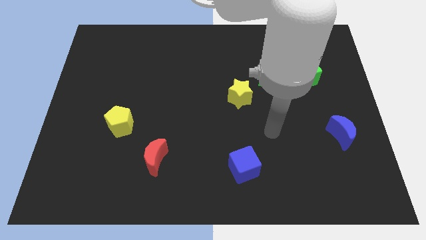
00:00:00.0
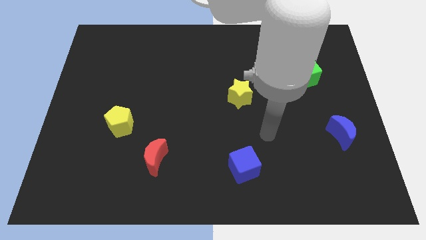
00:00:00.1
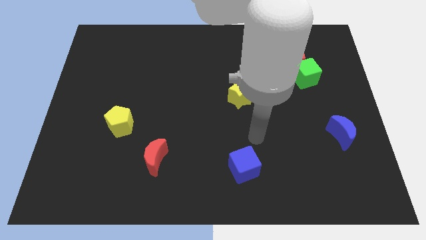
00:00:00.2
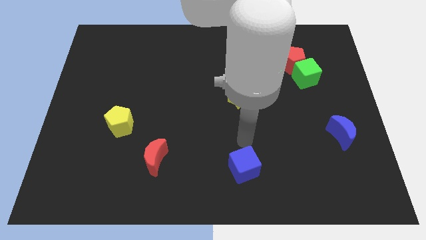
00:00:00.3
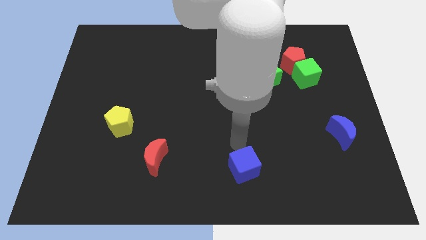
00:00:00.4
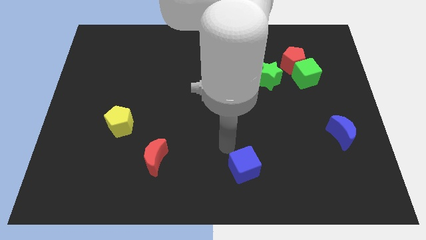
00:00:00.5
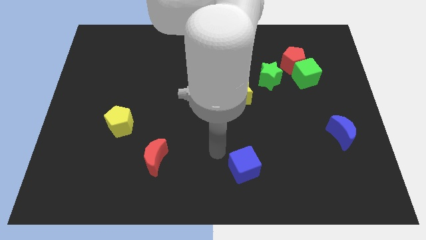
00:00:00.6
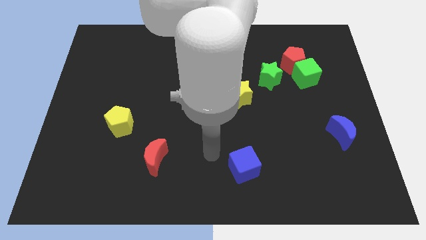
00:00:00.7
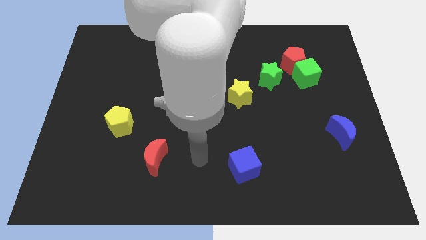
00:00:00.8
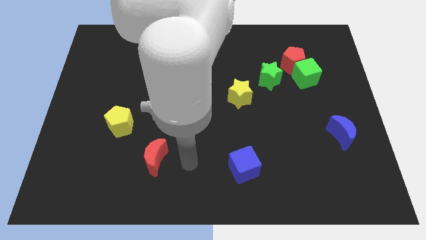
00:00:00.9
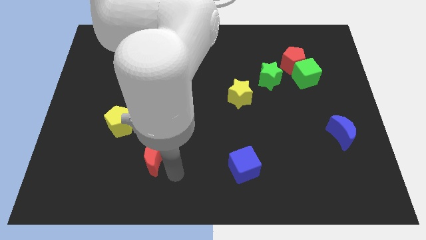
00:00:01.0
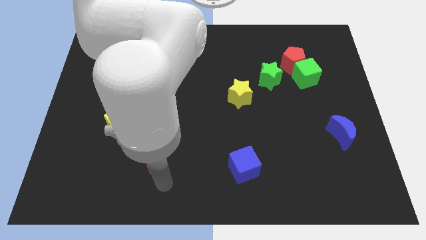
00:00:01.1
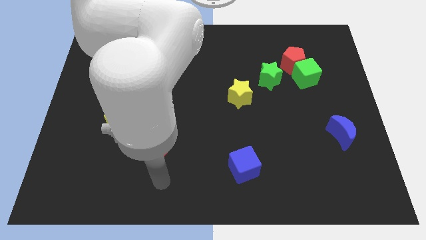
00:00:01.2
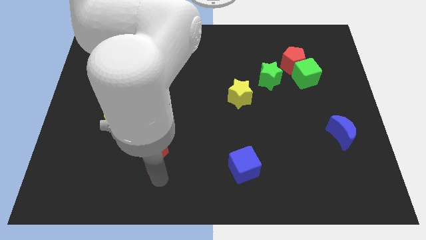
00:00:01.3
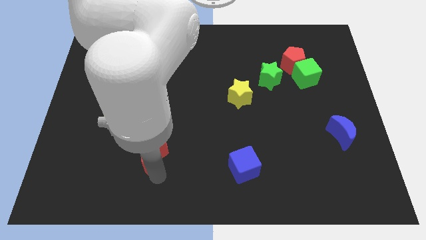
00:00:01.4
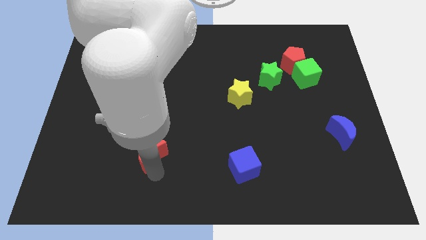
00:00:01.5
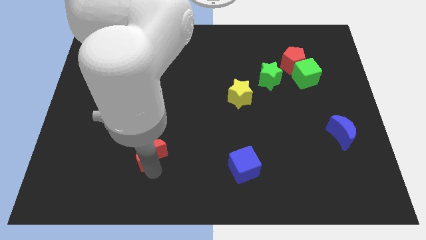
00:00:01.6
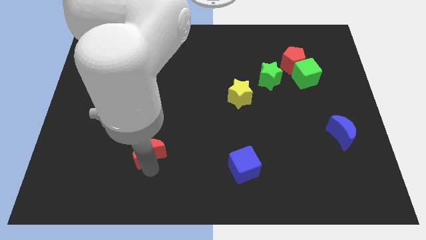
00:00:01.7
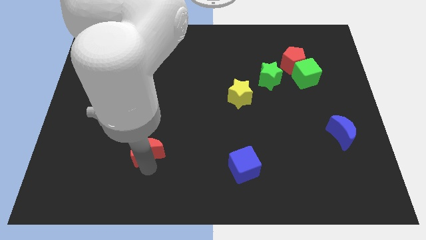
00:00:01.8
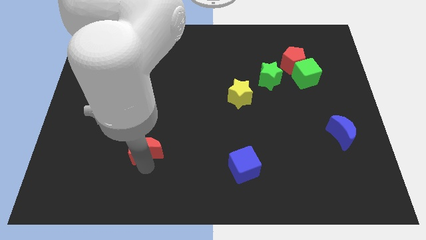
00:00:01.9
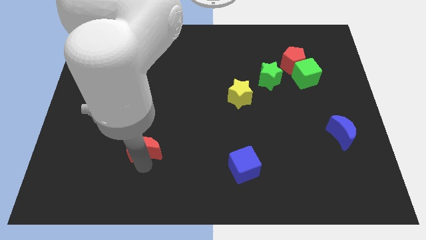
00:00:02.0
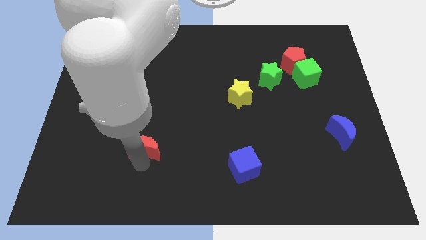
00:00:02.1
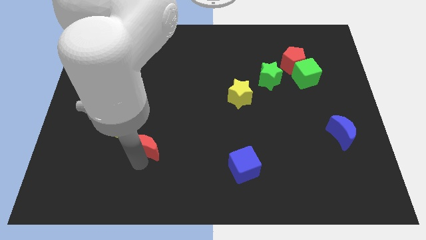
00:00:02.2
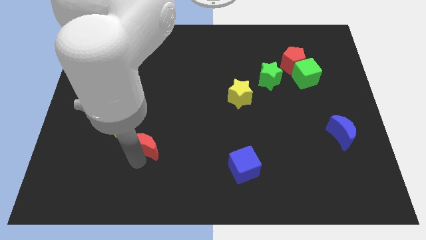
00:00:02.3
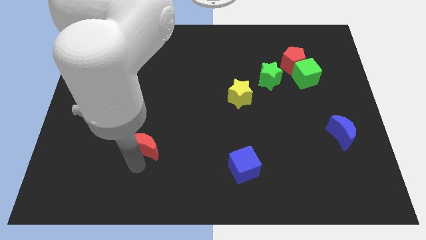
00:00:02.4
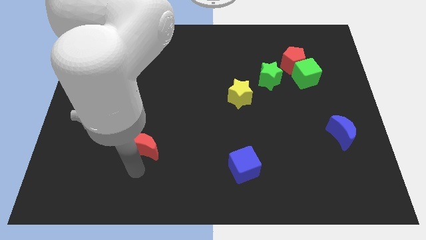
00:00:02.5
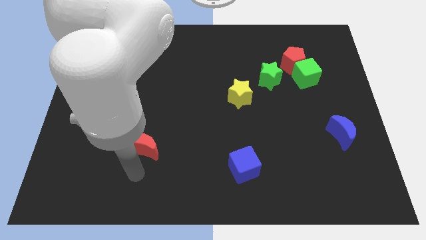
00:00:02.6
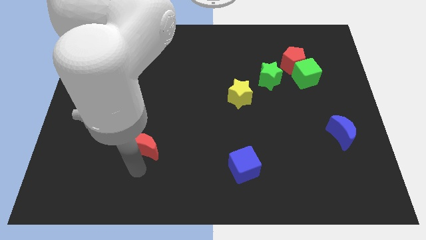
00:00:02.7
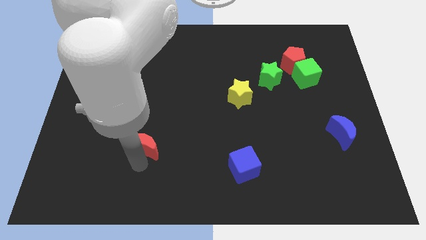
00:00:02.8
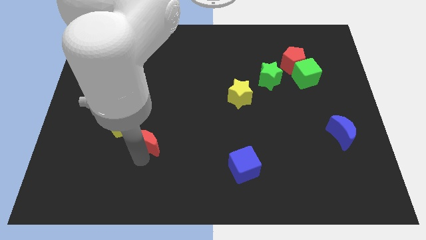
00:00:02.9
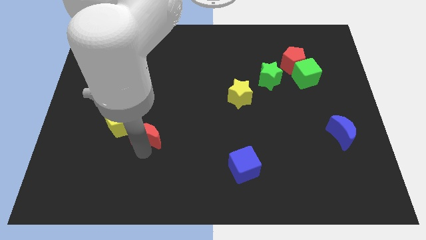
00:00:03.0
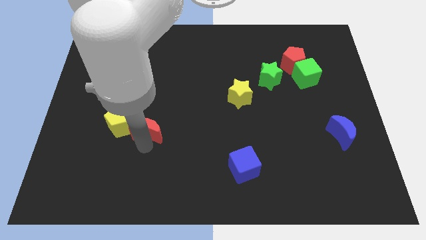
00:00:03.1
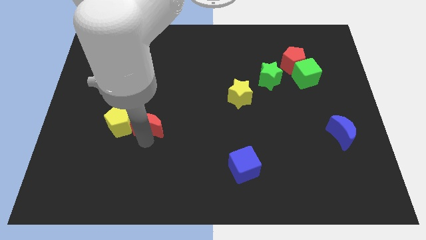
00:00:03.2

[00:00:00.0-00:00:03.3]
slightly slide the red moon up

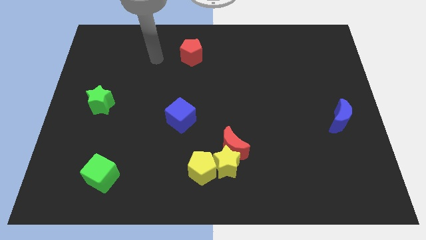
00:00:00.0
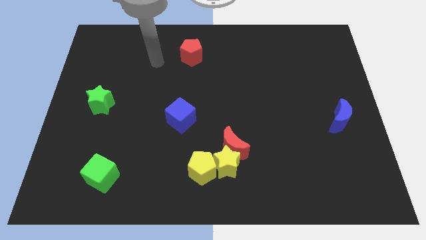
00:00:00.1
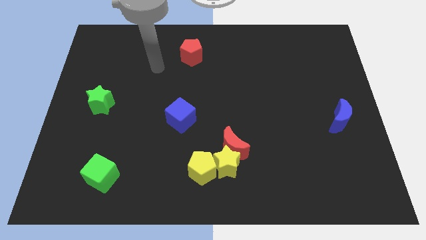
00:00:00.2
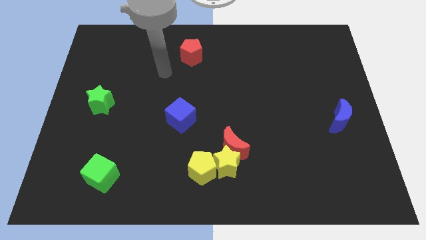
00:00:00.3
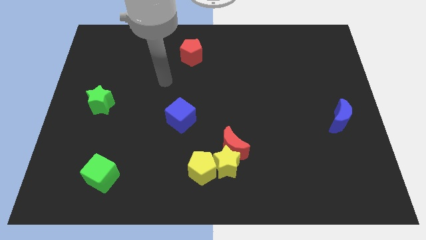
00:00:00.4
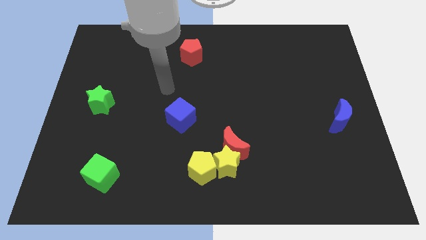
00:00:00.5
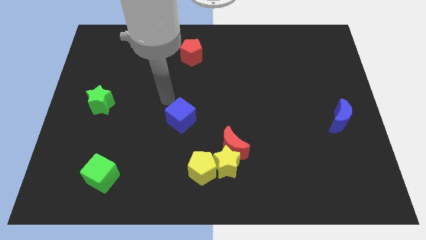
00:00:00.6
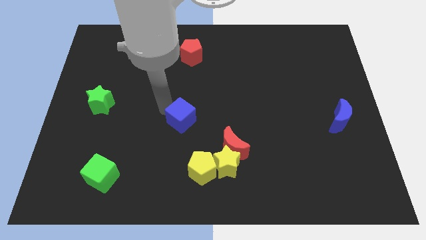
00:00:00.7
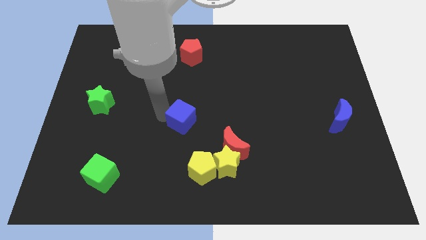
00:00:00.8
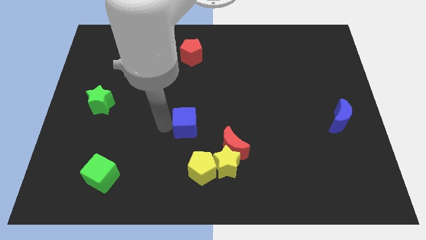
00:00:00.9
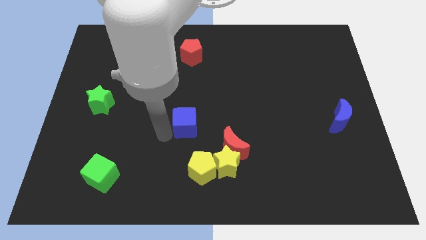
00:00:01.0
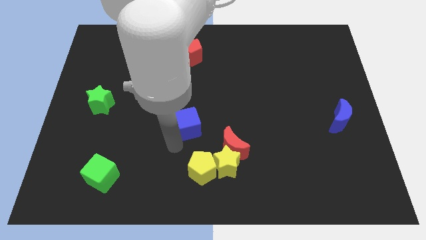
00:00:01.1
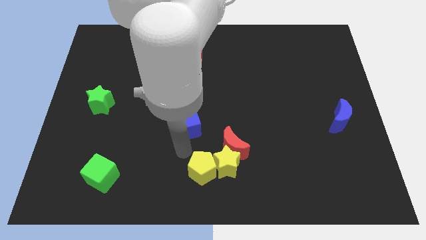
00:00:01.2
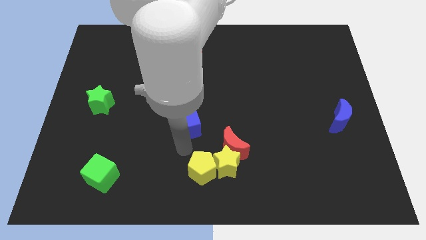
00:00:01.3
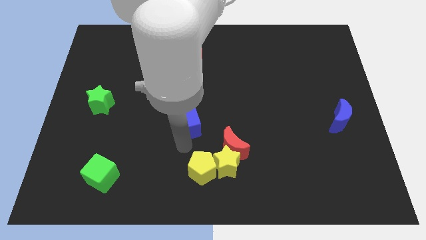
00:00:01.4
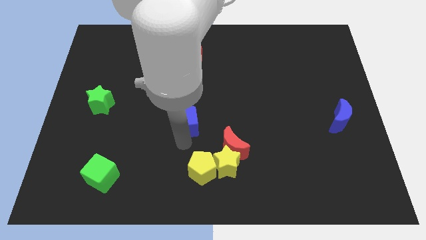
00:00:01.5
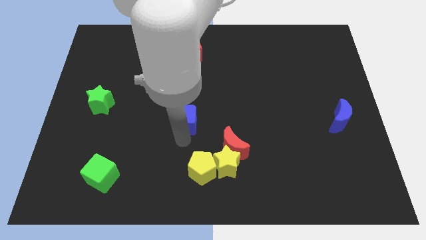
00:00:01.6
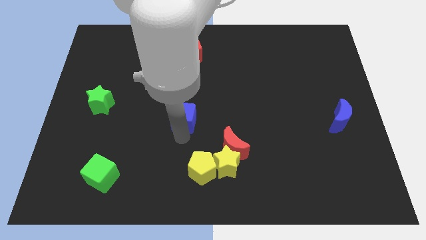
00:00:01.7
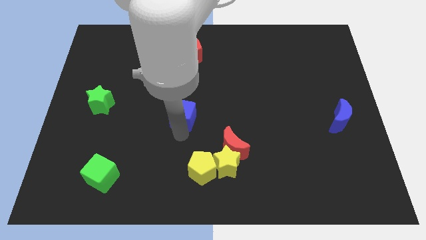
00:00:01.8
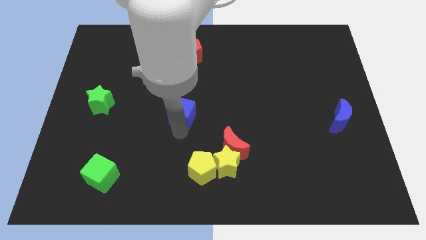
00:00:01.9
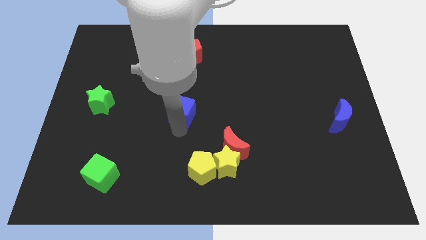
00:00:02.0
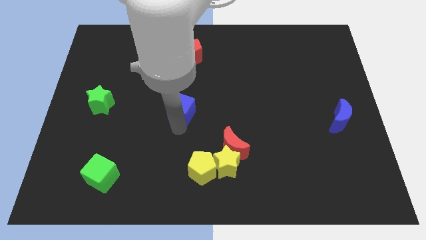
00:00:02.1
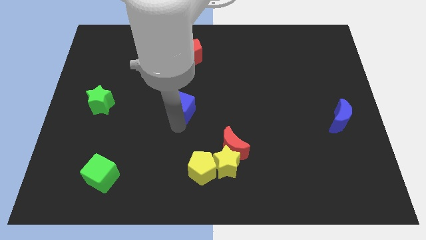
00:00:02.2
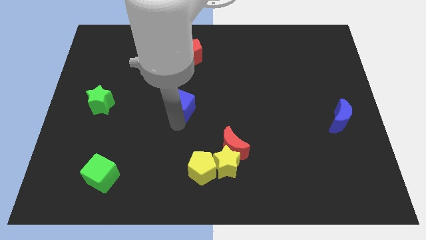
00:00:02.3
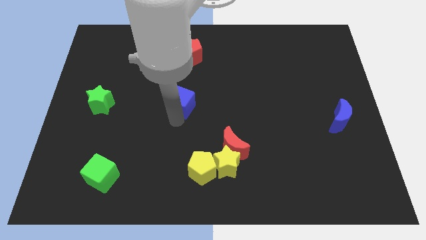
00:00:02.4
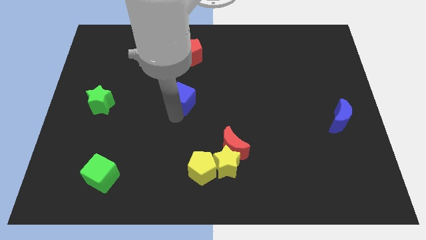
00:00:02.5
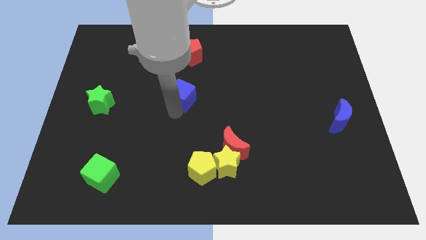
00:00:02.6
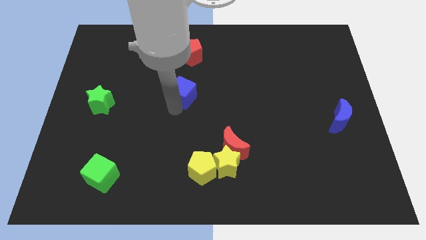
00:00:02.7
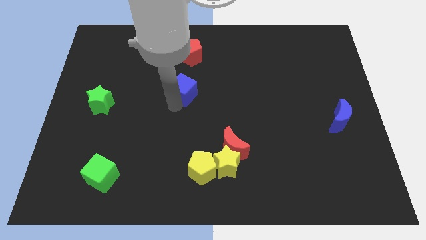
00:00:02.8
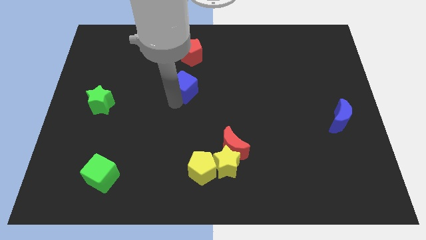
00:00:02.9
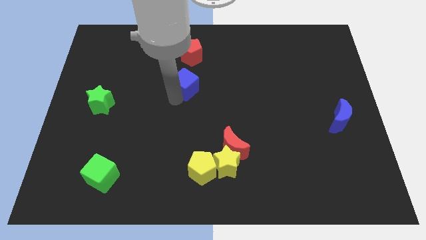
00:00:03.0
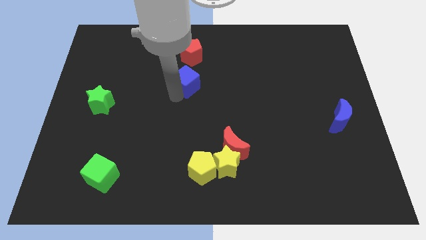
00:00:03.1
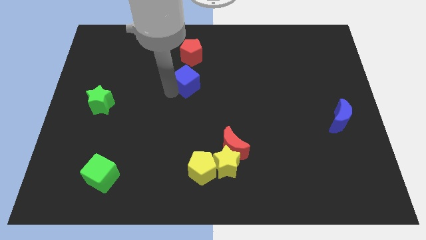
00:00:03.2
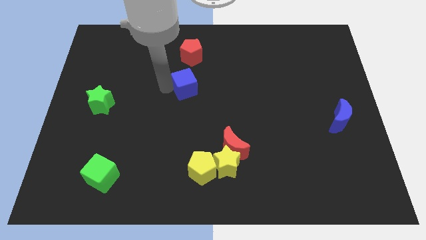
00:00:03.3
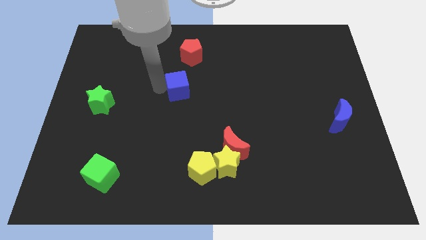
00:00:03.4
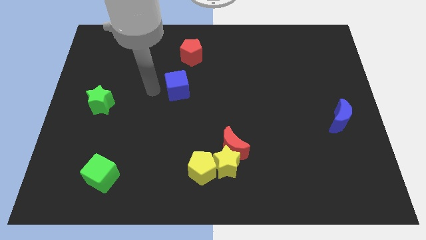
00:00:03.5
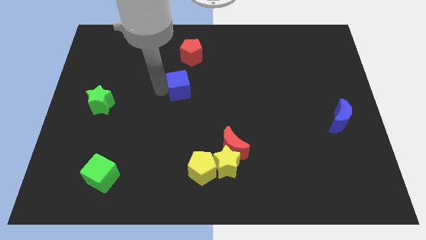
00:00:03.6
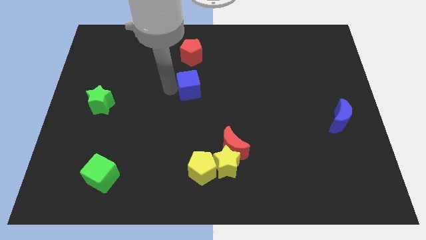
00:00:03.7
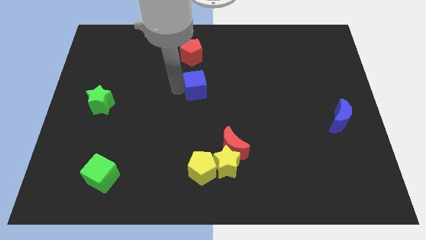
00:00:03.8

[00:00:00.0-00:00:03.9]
move the blue cube a little upwards and then right

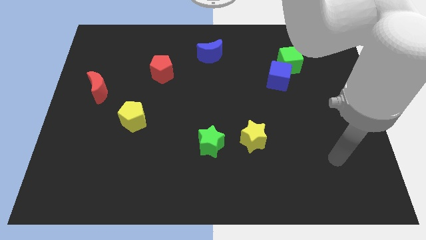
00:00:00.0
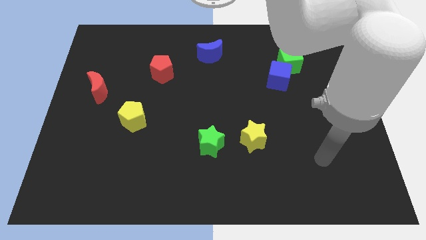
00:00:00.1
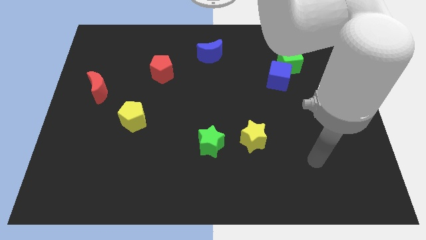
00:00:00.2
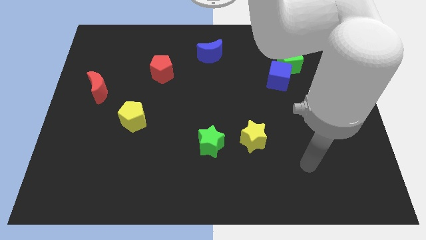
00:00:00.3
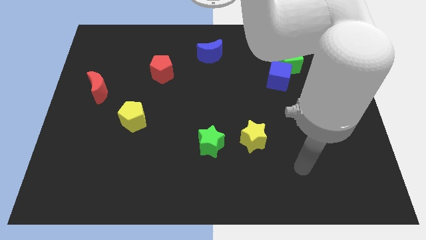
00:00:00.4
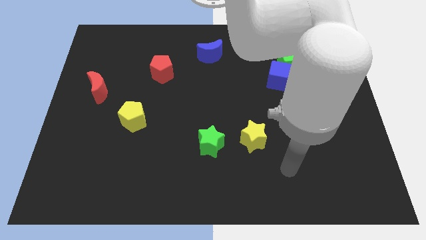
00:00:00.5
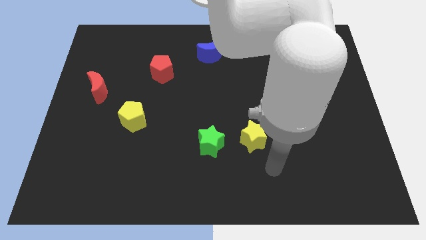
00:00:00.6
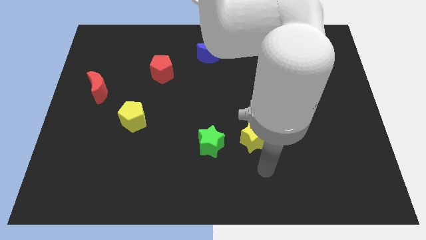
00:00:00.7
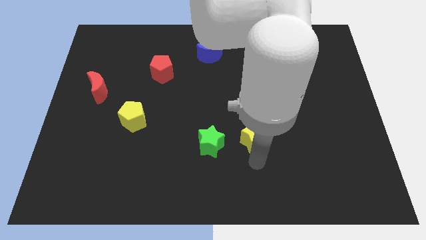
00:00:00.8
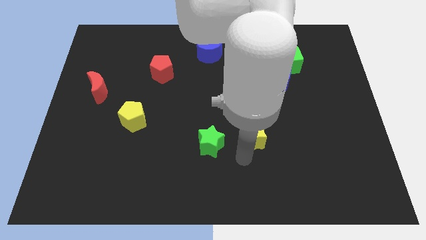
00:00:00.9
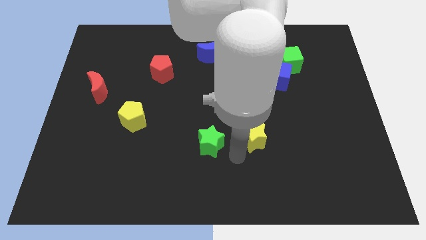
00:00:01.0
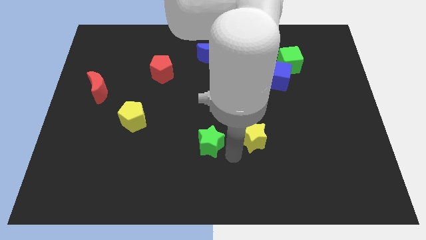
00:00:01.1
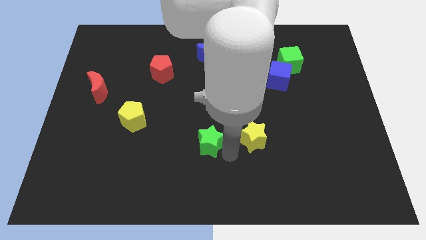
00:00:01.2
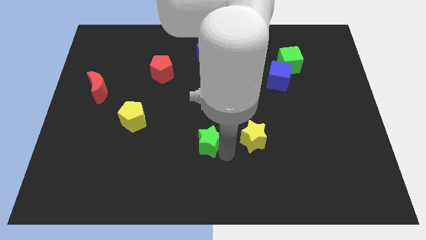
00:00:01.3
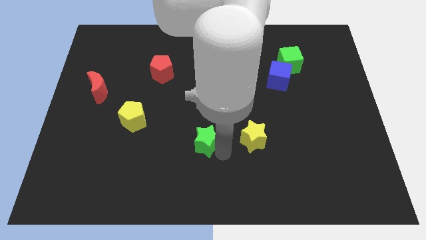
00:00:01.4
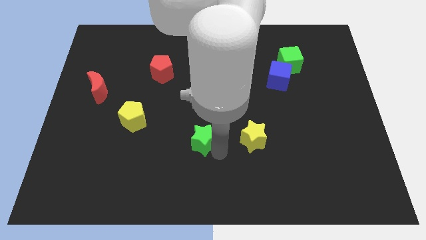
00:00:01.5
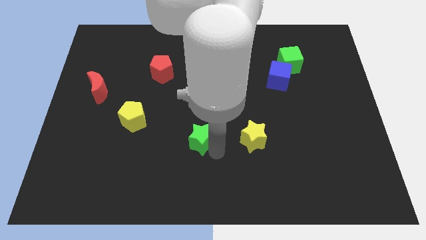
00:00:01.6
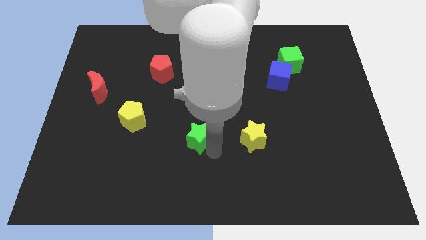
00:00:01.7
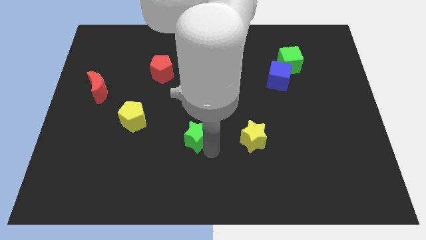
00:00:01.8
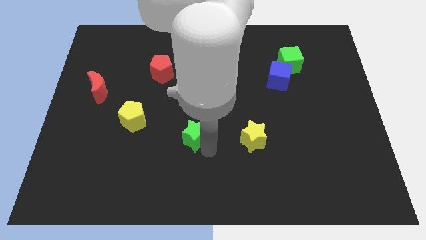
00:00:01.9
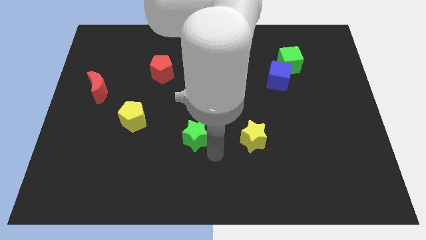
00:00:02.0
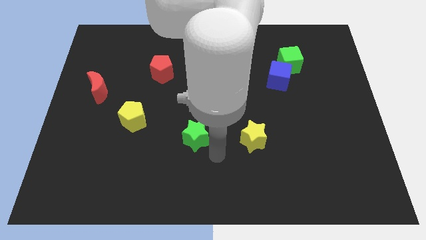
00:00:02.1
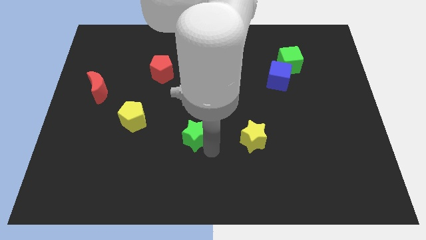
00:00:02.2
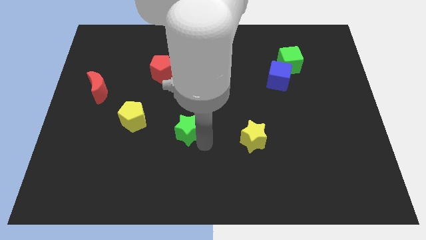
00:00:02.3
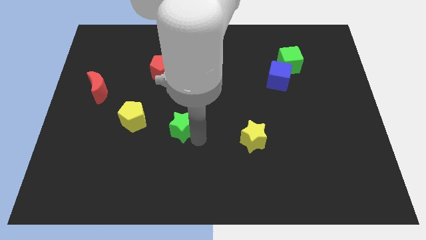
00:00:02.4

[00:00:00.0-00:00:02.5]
slightly move the green star up and left diagonally
